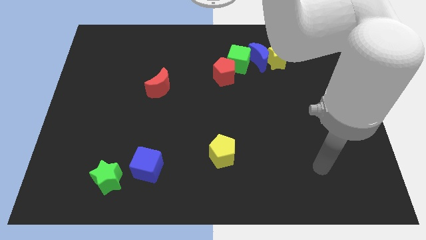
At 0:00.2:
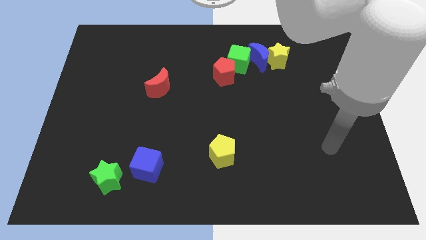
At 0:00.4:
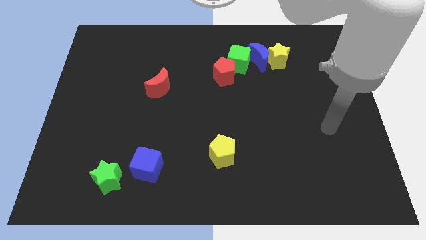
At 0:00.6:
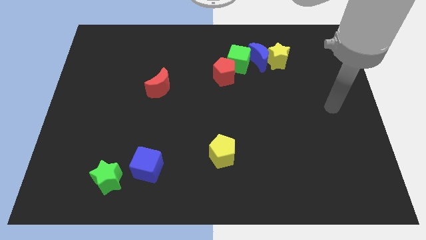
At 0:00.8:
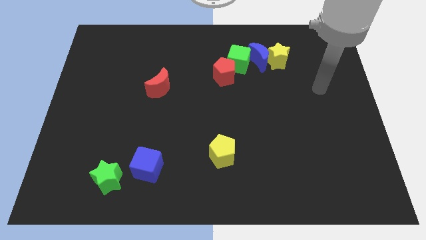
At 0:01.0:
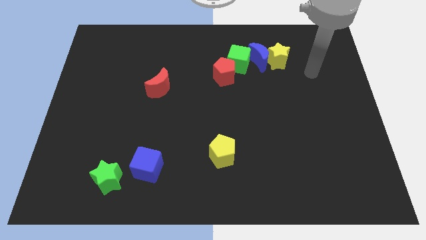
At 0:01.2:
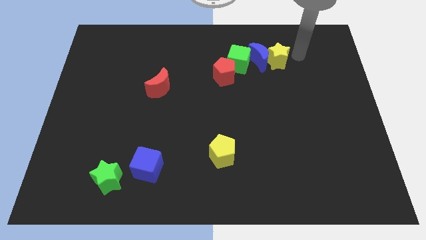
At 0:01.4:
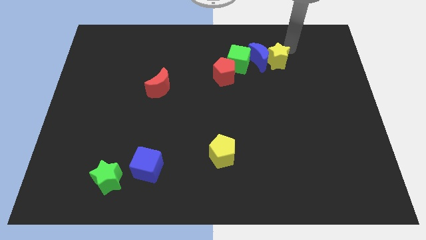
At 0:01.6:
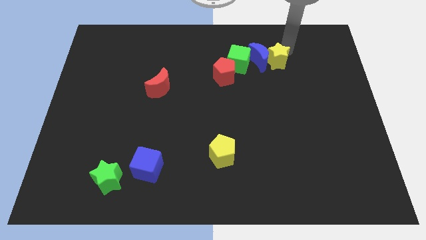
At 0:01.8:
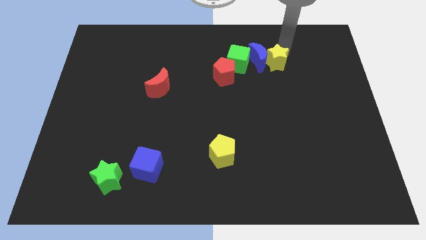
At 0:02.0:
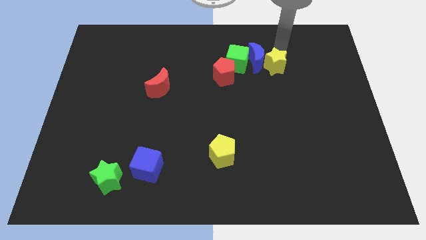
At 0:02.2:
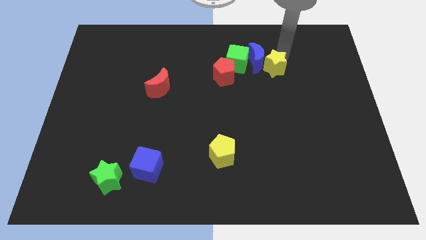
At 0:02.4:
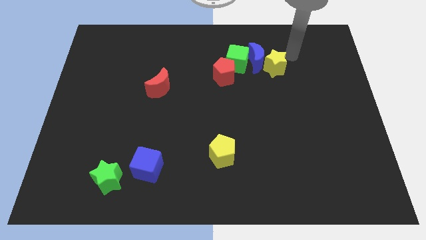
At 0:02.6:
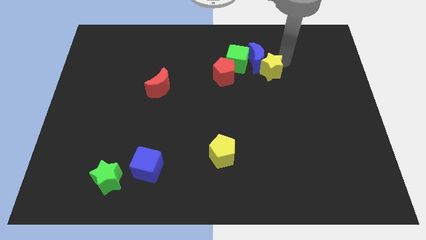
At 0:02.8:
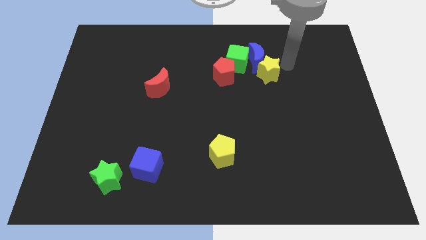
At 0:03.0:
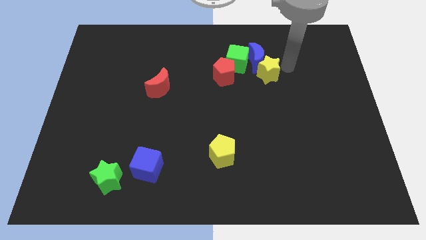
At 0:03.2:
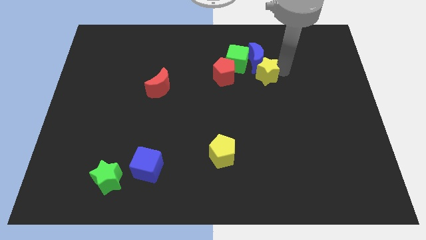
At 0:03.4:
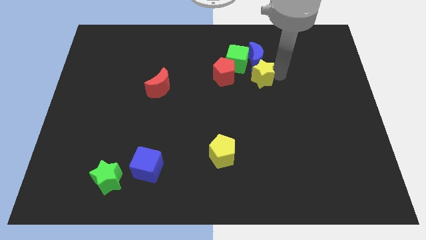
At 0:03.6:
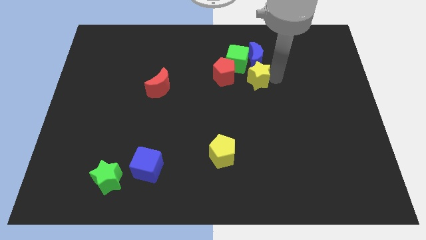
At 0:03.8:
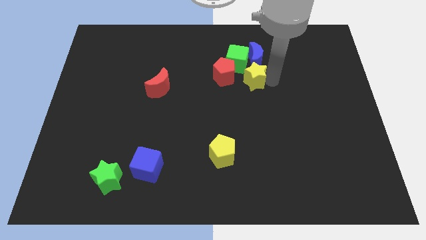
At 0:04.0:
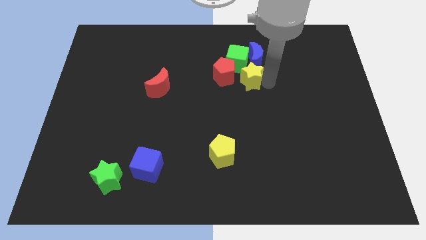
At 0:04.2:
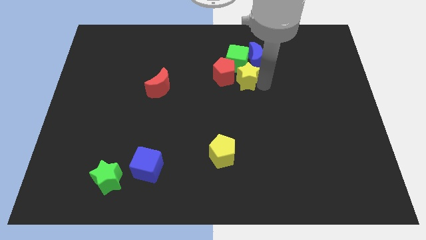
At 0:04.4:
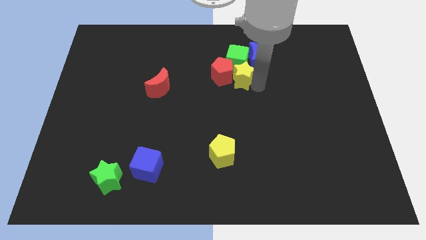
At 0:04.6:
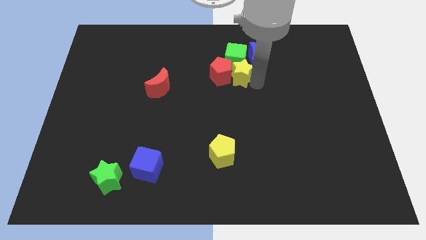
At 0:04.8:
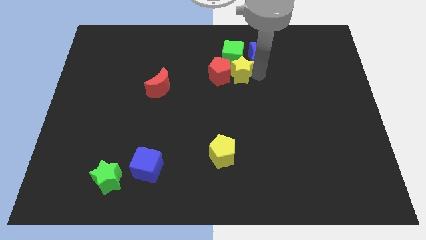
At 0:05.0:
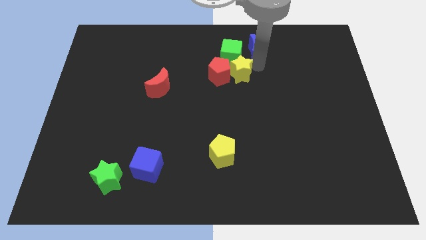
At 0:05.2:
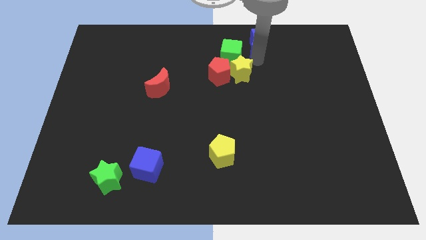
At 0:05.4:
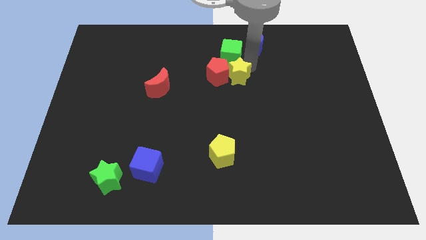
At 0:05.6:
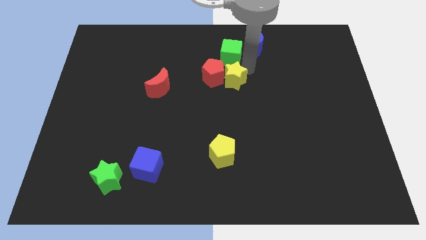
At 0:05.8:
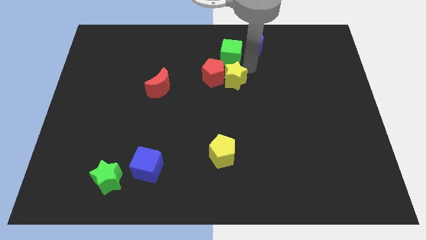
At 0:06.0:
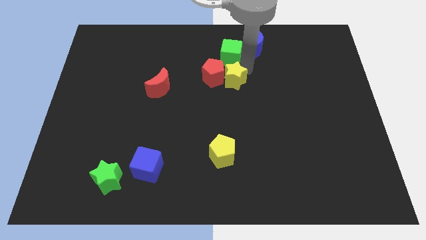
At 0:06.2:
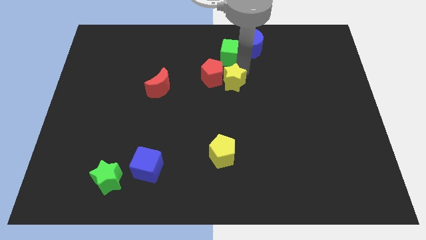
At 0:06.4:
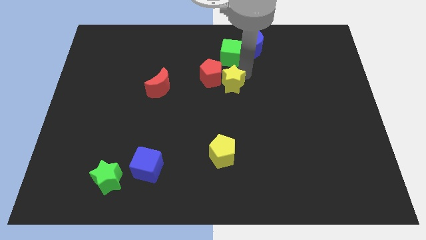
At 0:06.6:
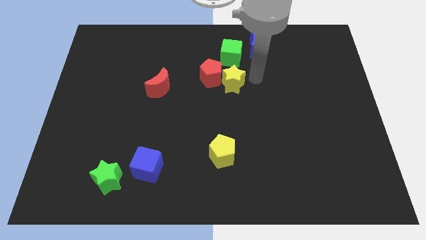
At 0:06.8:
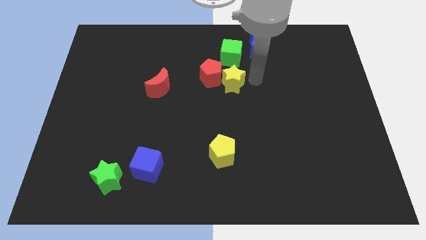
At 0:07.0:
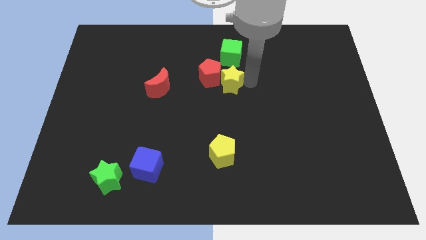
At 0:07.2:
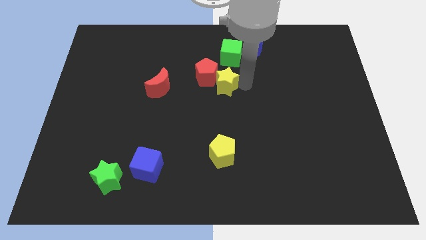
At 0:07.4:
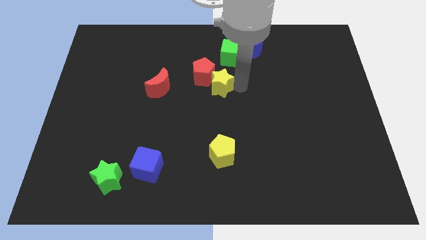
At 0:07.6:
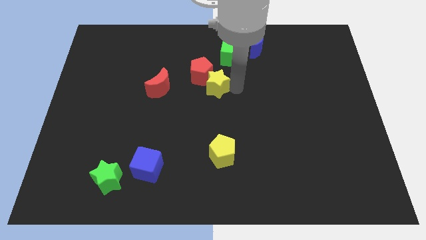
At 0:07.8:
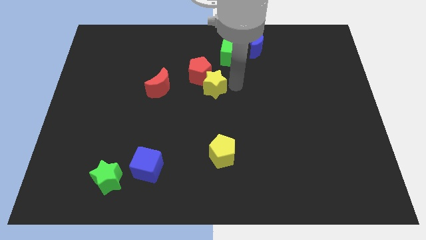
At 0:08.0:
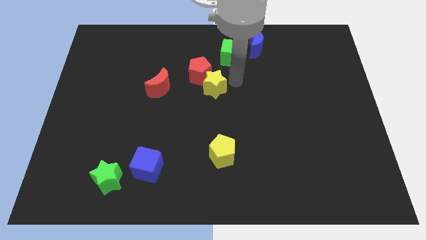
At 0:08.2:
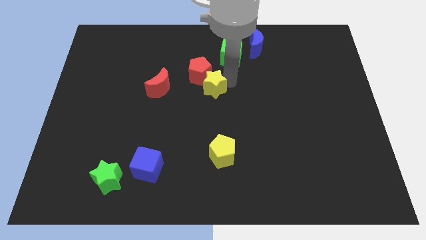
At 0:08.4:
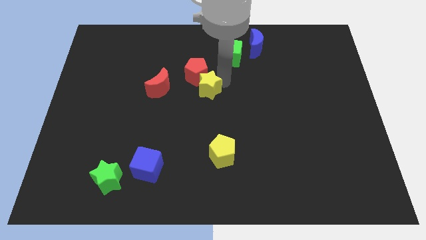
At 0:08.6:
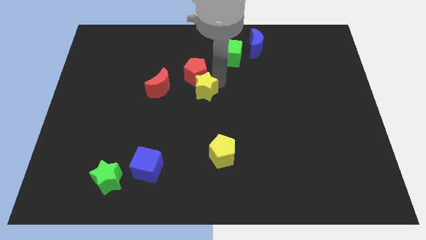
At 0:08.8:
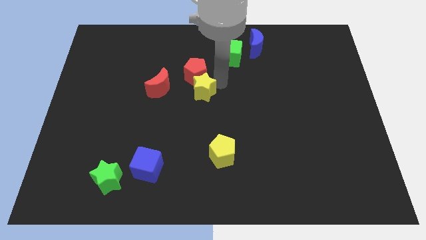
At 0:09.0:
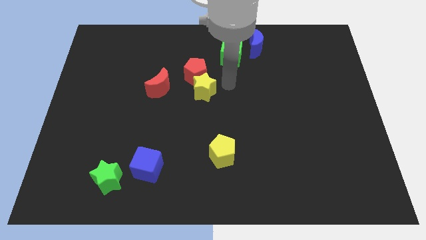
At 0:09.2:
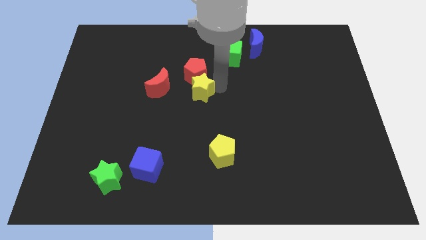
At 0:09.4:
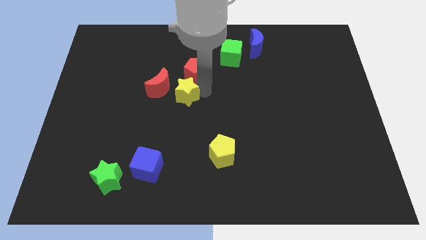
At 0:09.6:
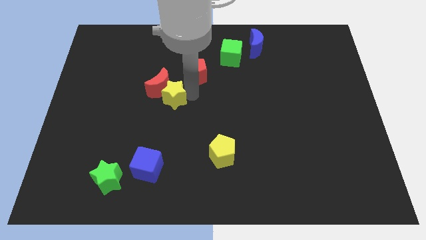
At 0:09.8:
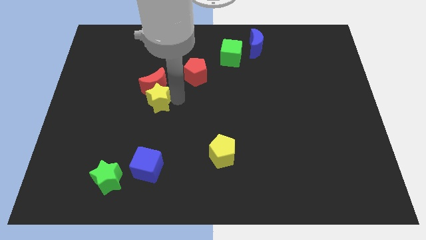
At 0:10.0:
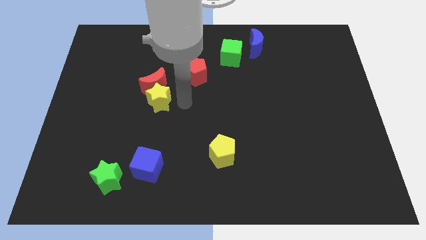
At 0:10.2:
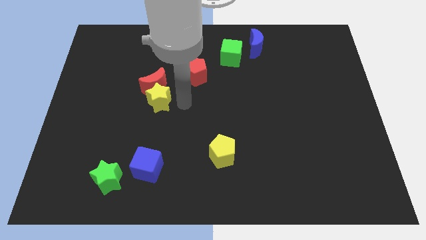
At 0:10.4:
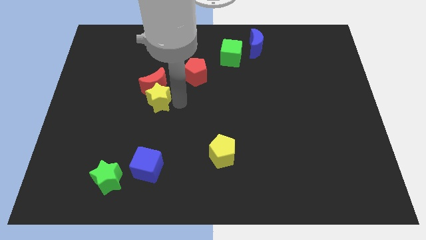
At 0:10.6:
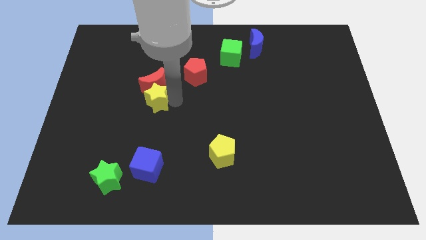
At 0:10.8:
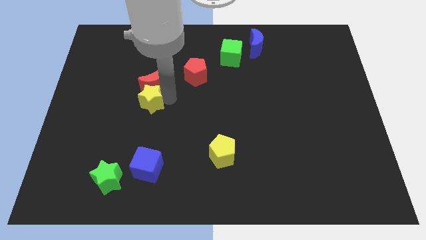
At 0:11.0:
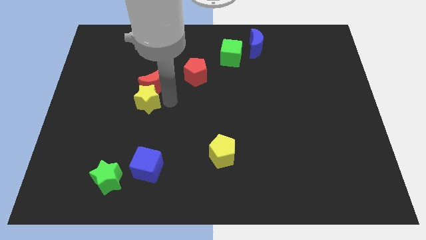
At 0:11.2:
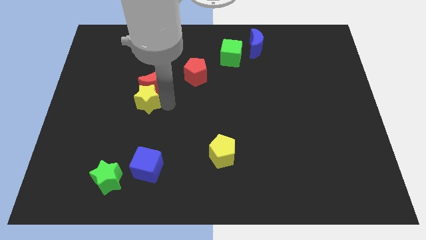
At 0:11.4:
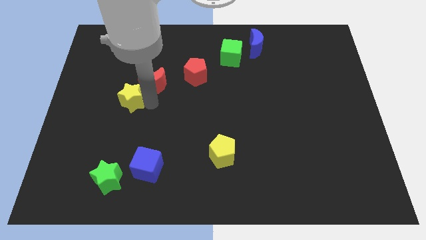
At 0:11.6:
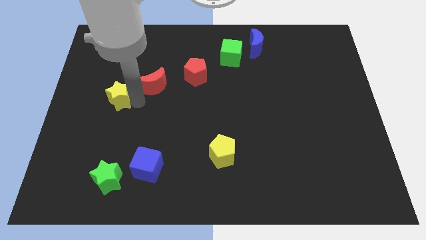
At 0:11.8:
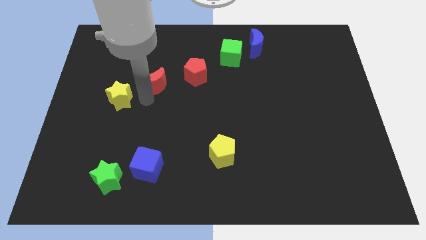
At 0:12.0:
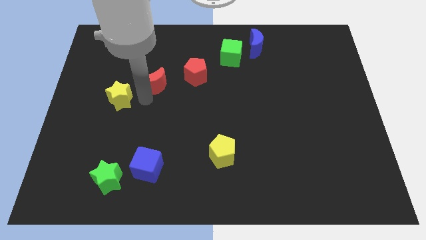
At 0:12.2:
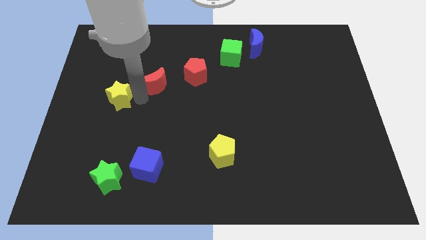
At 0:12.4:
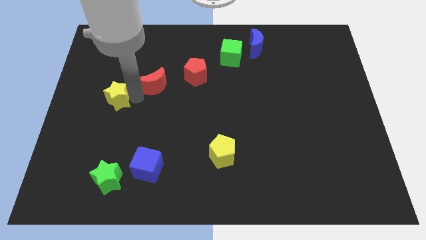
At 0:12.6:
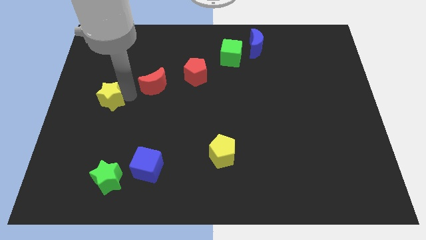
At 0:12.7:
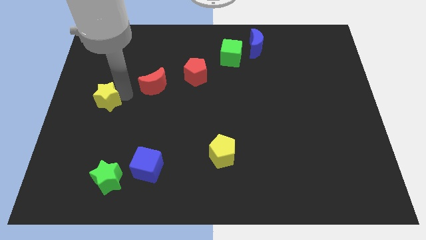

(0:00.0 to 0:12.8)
push the yellow star to the left side
